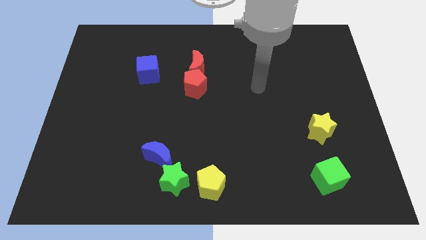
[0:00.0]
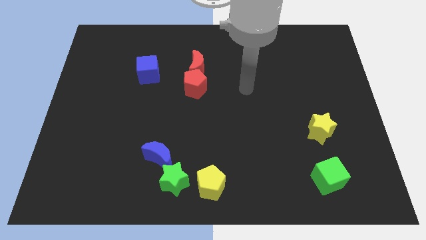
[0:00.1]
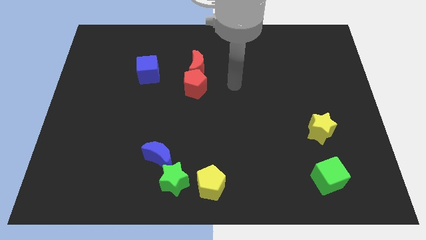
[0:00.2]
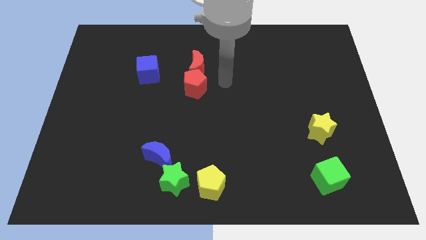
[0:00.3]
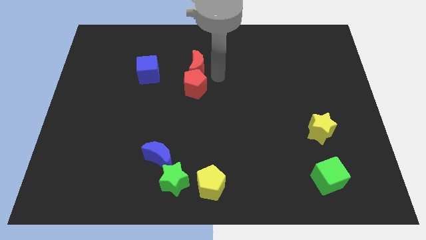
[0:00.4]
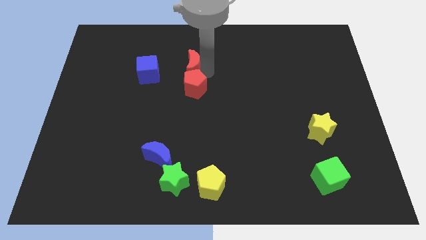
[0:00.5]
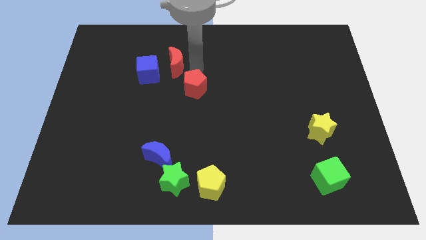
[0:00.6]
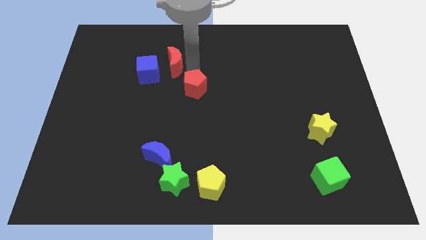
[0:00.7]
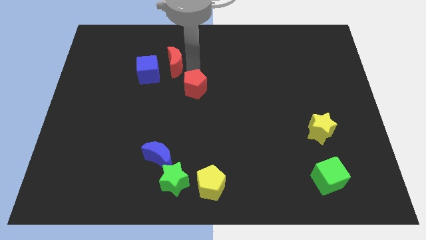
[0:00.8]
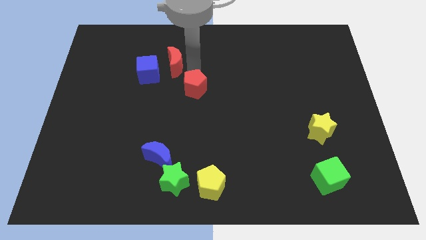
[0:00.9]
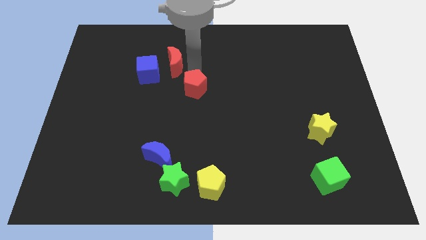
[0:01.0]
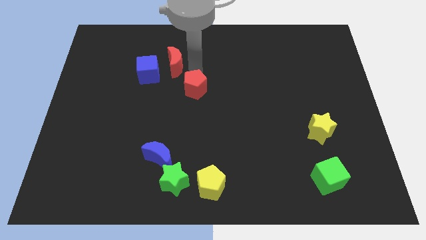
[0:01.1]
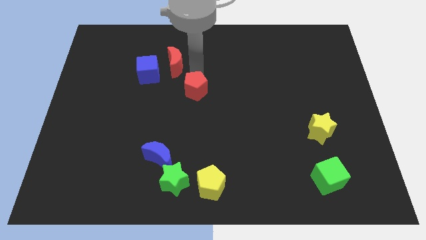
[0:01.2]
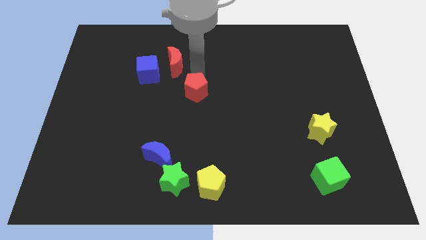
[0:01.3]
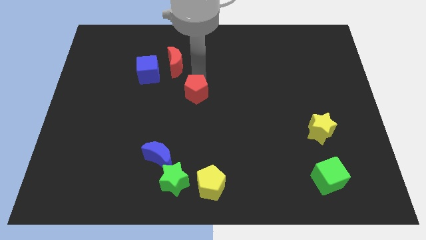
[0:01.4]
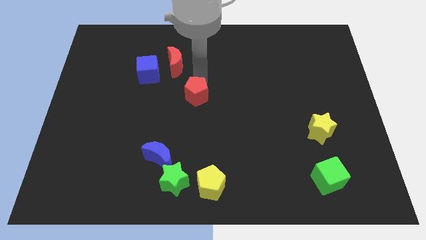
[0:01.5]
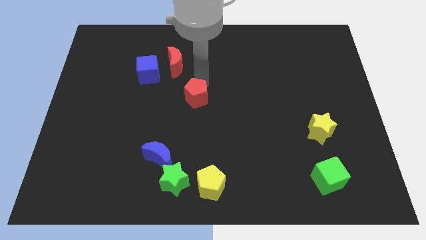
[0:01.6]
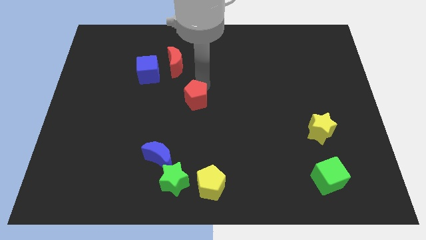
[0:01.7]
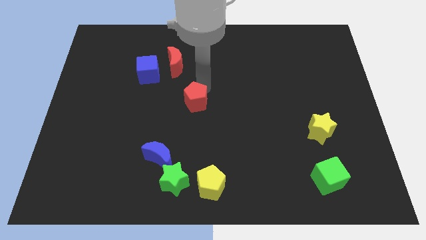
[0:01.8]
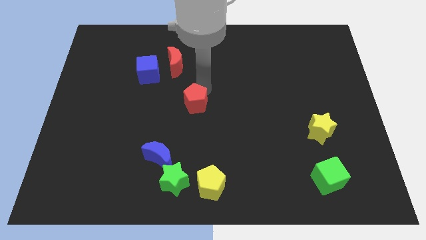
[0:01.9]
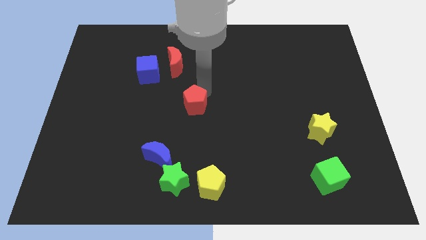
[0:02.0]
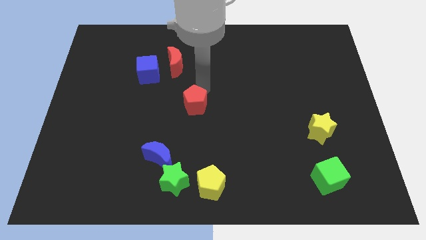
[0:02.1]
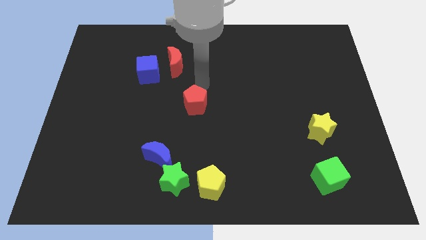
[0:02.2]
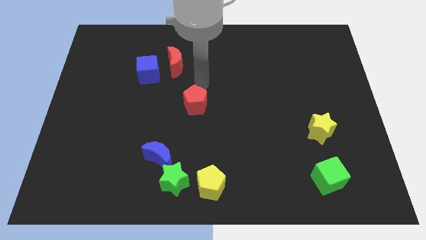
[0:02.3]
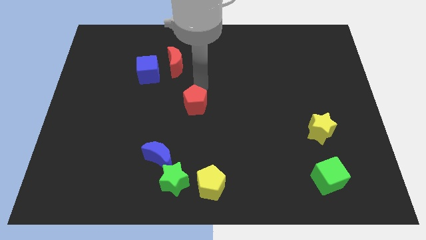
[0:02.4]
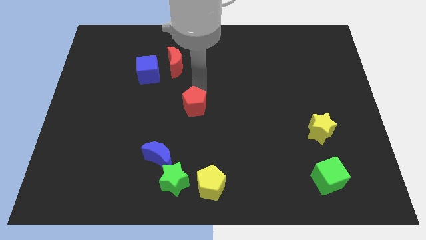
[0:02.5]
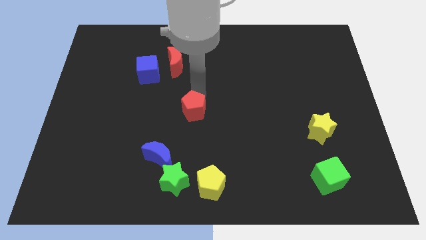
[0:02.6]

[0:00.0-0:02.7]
push the red pentagon somewhat downwards

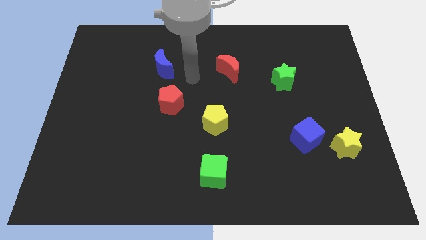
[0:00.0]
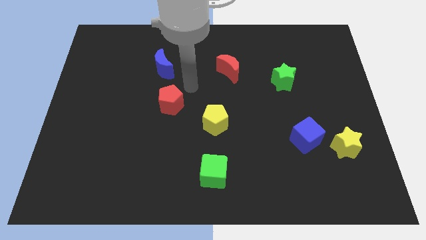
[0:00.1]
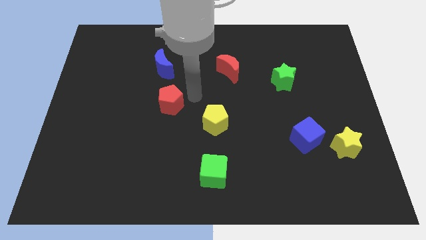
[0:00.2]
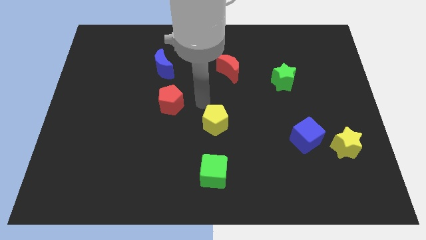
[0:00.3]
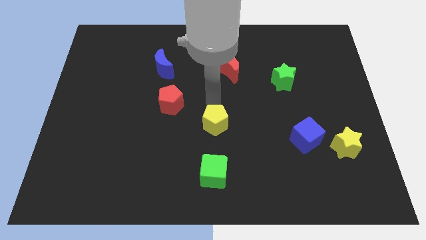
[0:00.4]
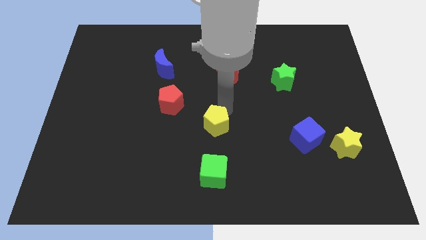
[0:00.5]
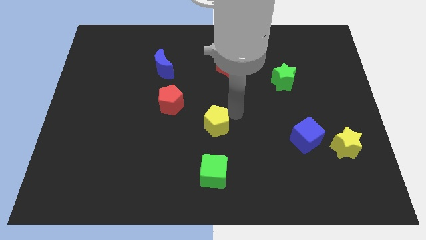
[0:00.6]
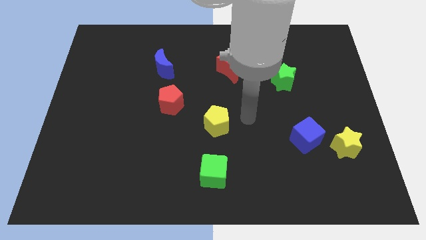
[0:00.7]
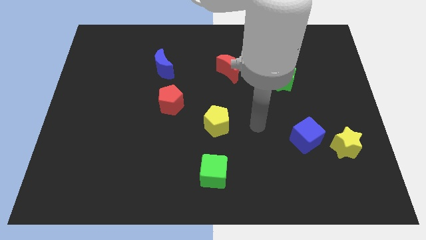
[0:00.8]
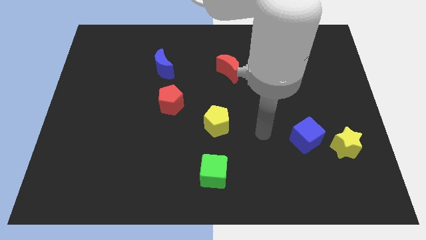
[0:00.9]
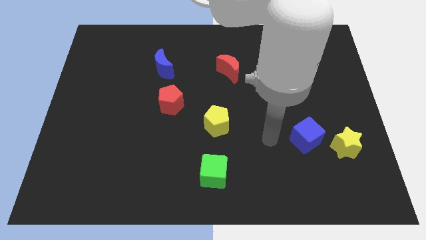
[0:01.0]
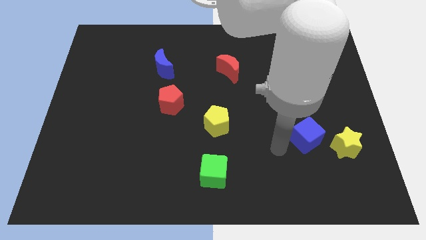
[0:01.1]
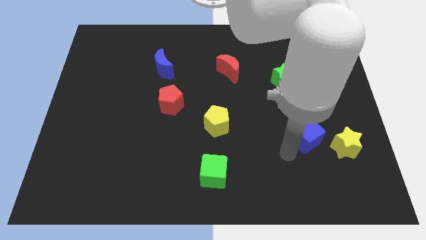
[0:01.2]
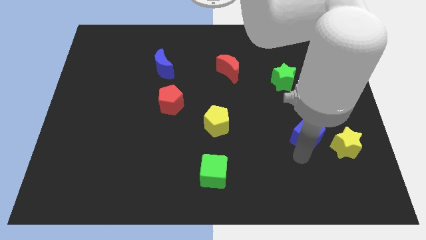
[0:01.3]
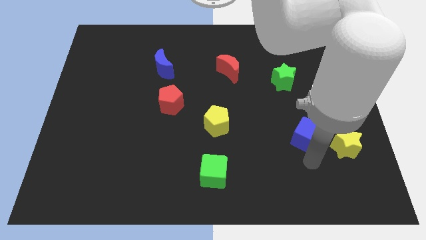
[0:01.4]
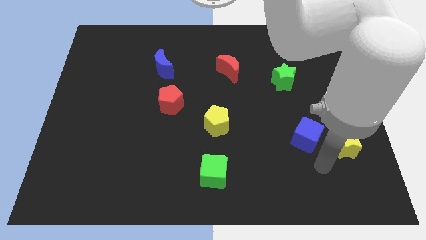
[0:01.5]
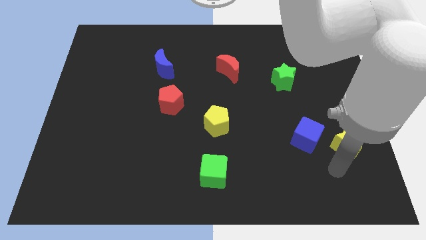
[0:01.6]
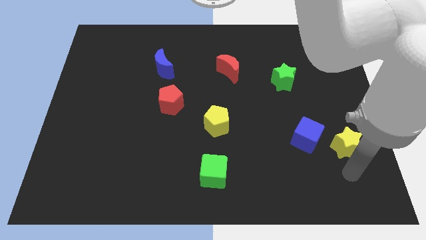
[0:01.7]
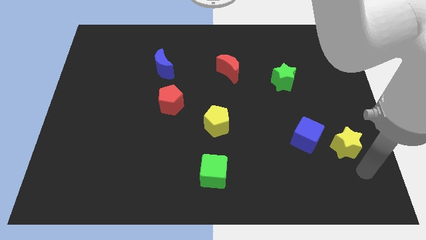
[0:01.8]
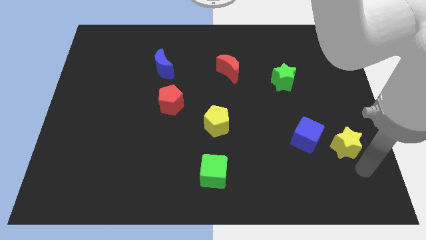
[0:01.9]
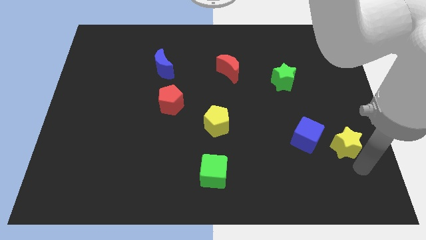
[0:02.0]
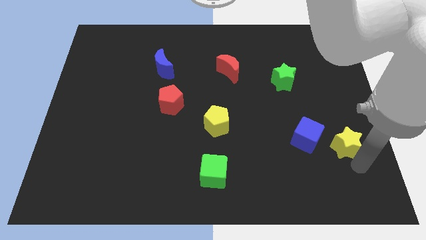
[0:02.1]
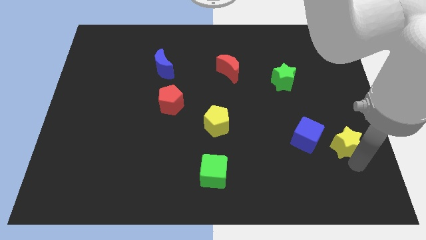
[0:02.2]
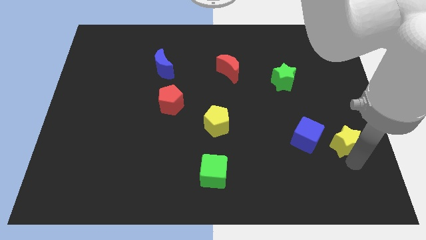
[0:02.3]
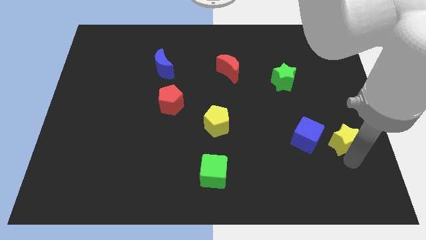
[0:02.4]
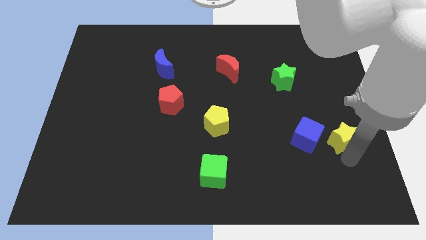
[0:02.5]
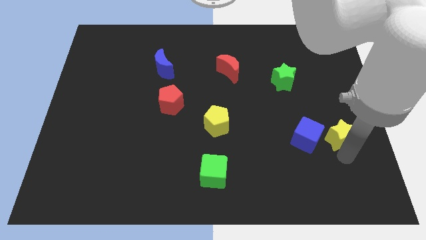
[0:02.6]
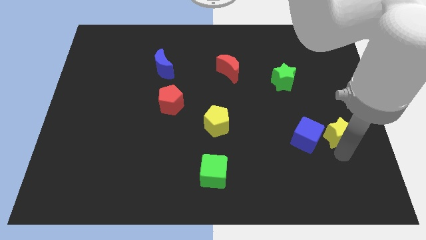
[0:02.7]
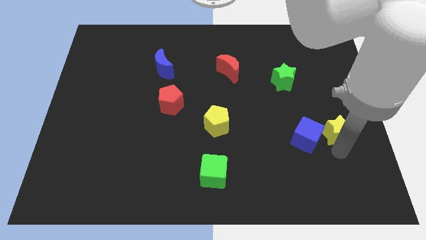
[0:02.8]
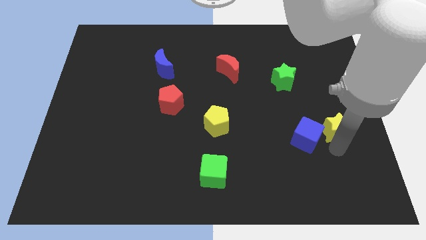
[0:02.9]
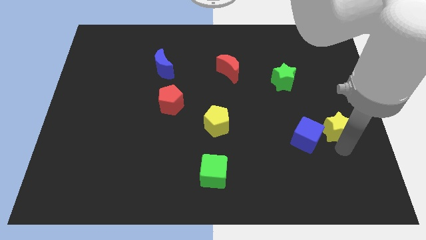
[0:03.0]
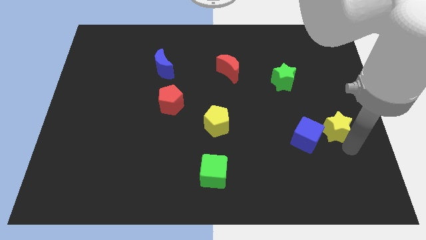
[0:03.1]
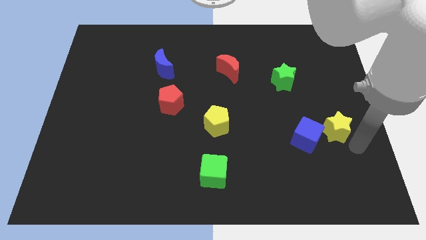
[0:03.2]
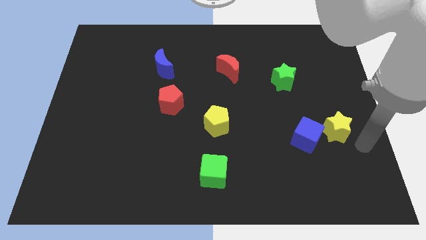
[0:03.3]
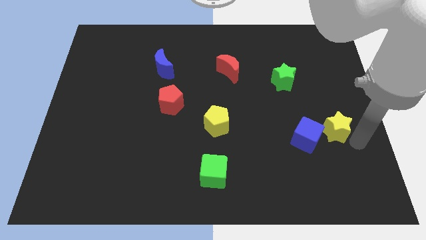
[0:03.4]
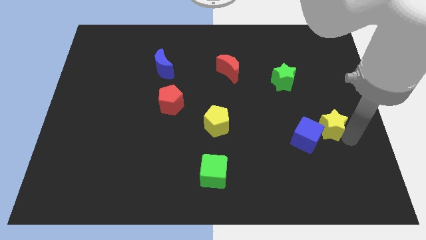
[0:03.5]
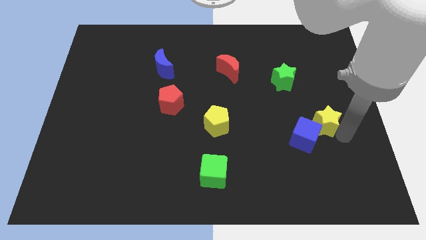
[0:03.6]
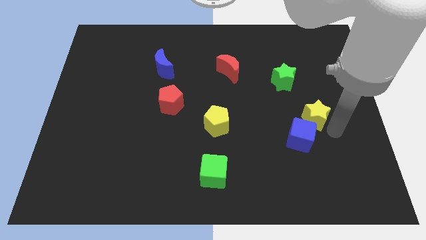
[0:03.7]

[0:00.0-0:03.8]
move the yellow star slightly up and then left

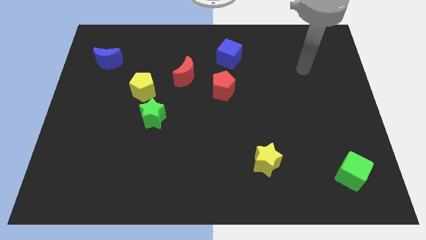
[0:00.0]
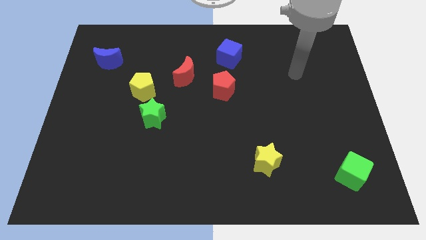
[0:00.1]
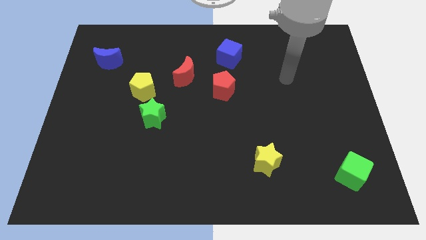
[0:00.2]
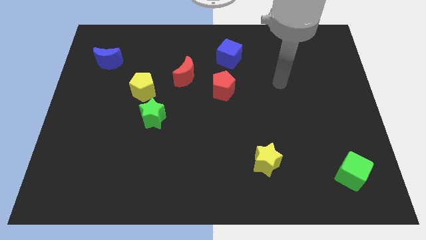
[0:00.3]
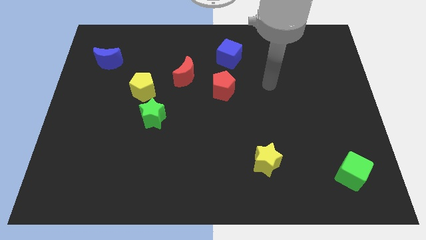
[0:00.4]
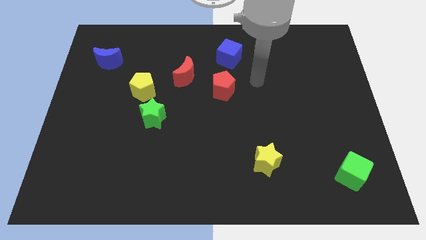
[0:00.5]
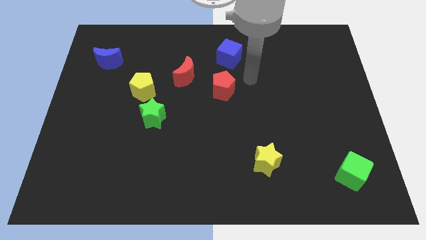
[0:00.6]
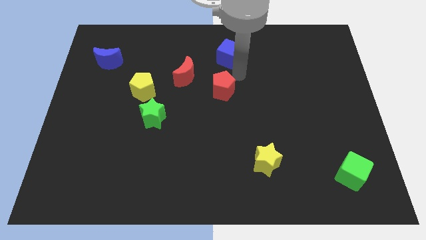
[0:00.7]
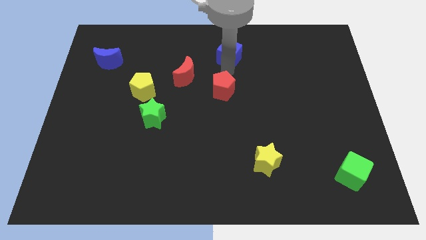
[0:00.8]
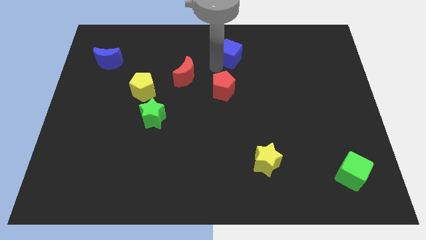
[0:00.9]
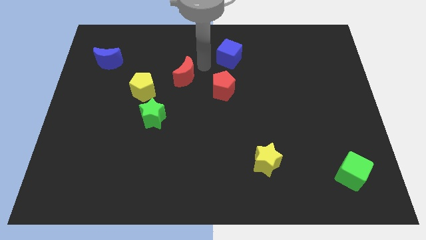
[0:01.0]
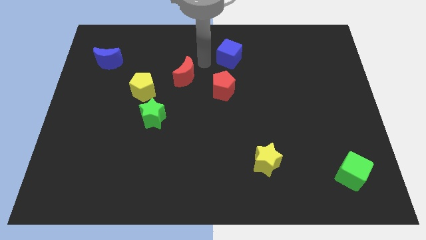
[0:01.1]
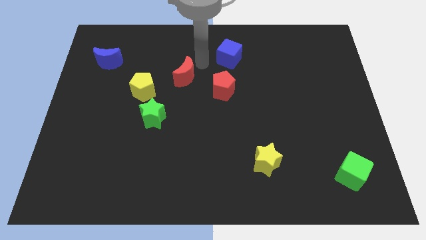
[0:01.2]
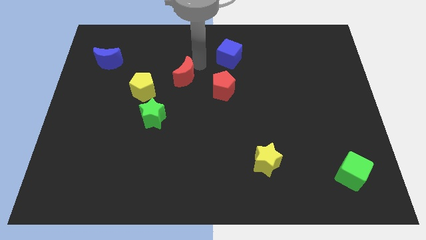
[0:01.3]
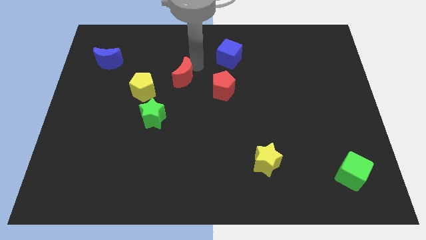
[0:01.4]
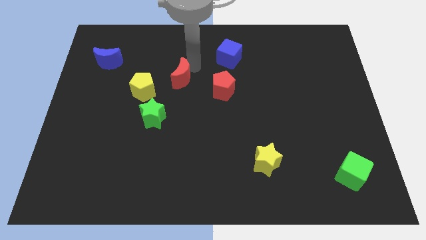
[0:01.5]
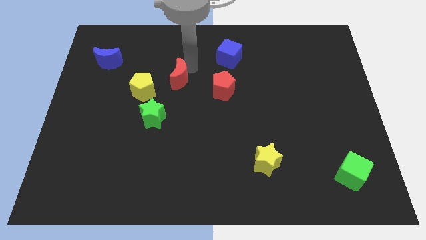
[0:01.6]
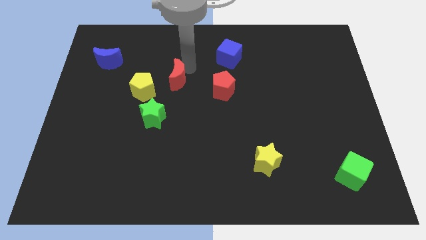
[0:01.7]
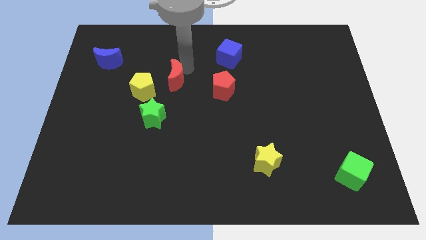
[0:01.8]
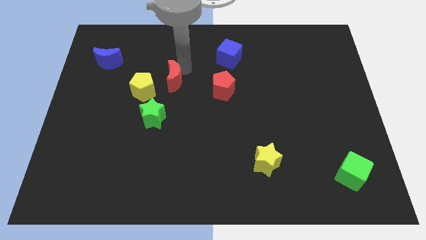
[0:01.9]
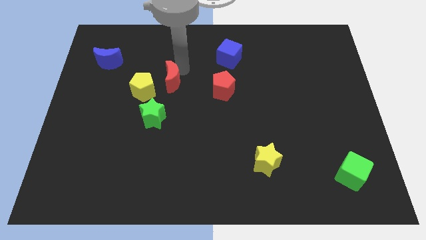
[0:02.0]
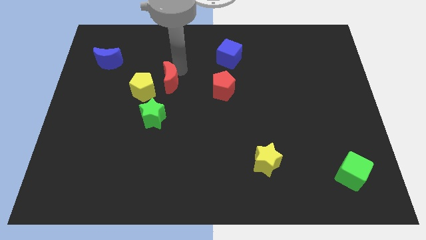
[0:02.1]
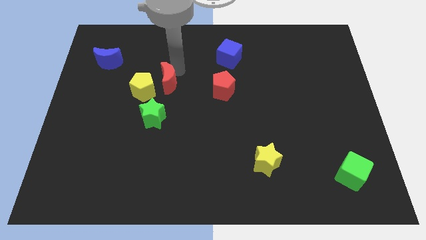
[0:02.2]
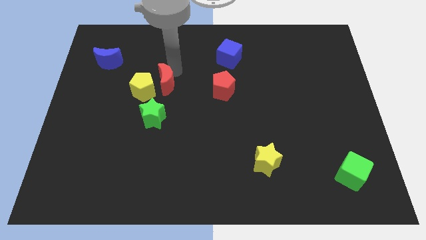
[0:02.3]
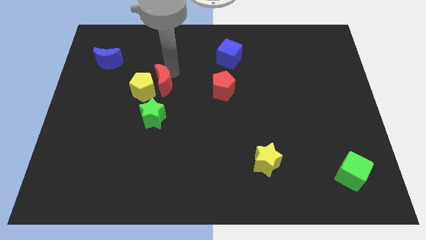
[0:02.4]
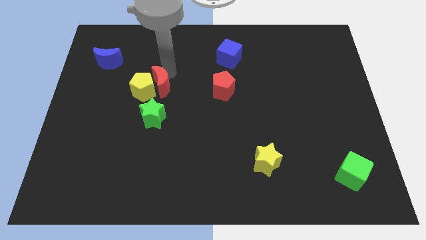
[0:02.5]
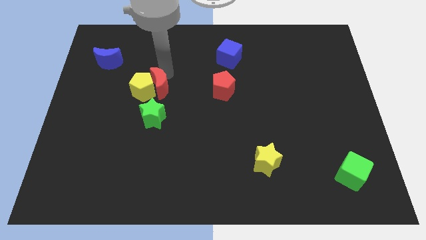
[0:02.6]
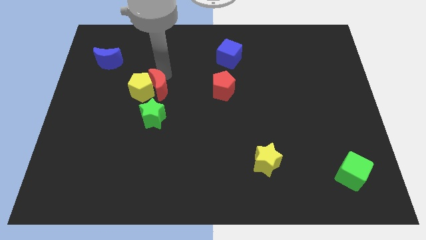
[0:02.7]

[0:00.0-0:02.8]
move the red moon somewhat downwards and to the left diagonally
